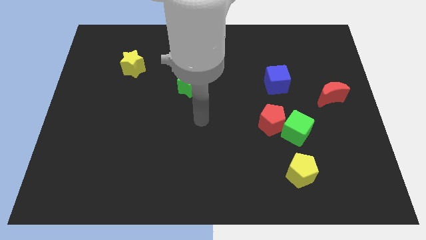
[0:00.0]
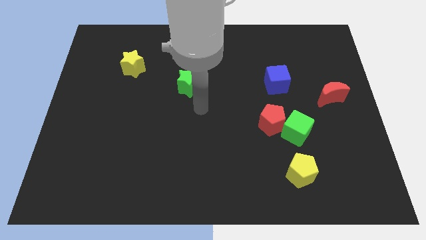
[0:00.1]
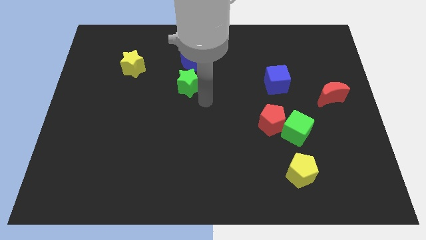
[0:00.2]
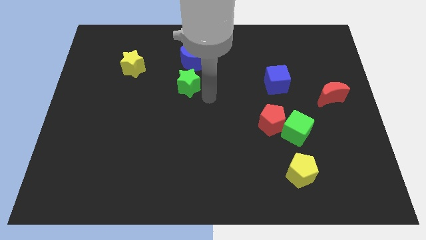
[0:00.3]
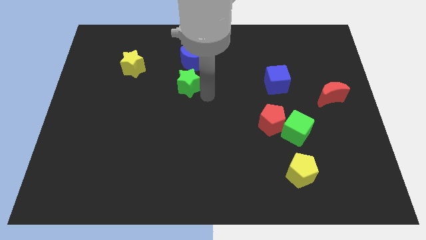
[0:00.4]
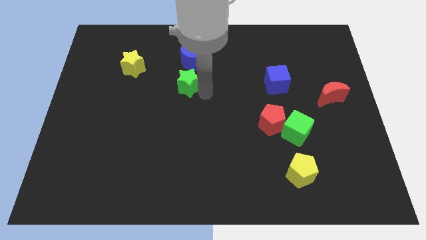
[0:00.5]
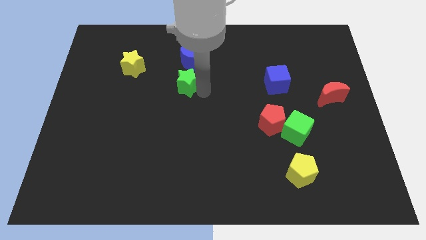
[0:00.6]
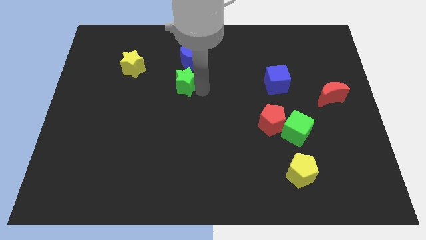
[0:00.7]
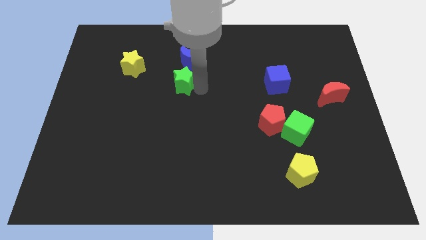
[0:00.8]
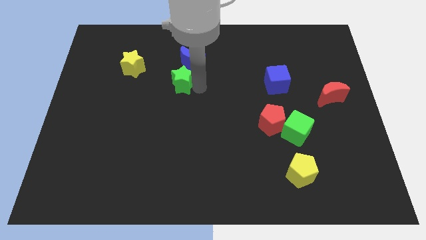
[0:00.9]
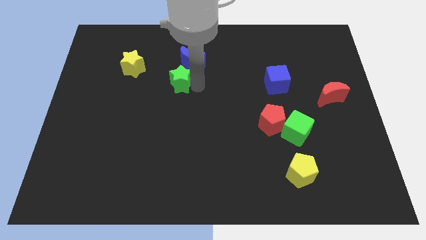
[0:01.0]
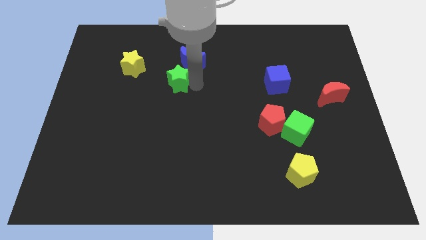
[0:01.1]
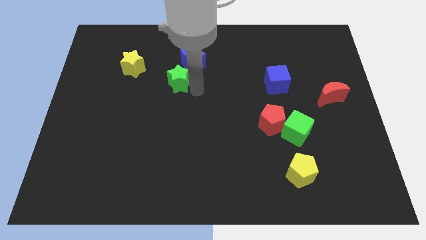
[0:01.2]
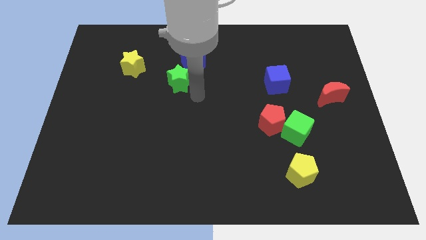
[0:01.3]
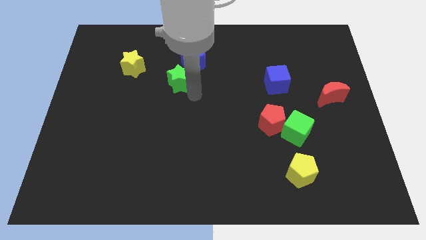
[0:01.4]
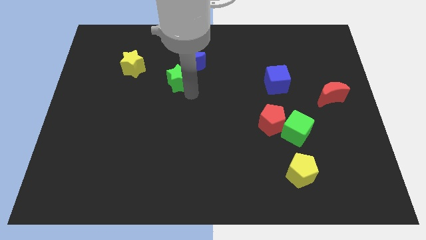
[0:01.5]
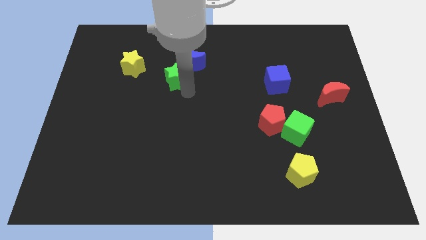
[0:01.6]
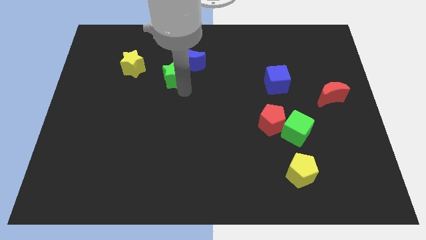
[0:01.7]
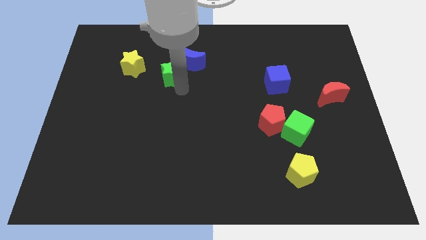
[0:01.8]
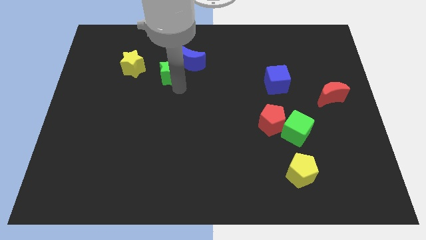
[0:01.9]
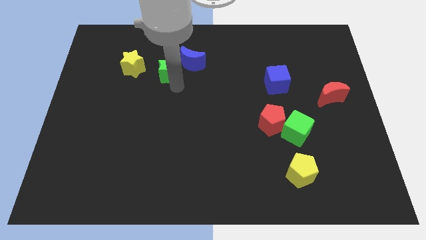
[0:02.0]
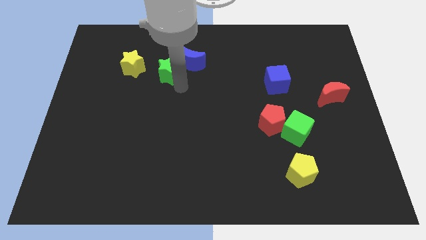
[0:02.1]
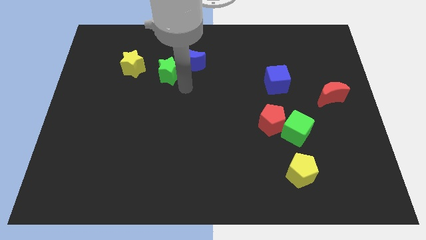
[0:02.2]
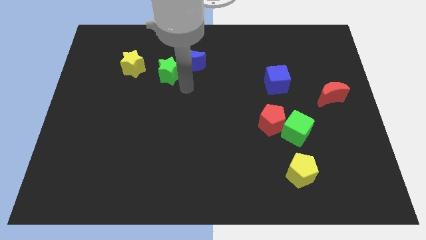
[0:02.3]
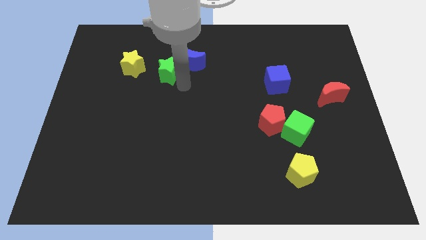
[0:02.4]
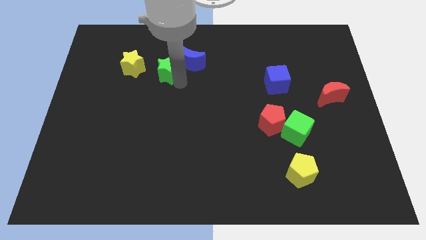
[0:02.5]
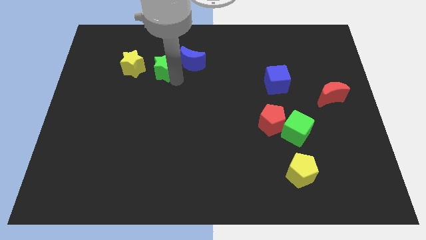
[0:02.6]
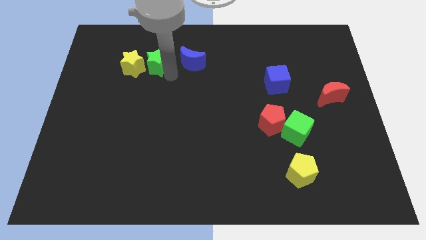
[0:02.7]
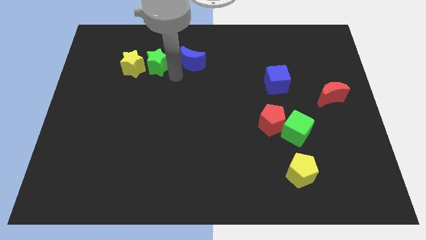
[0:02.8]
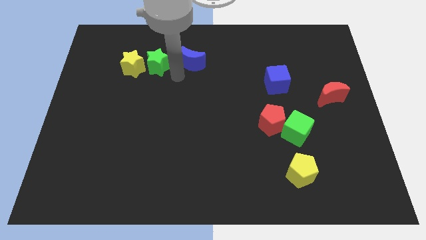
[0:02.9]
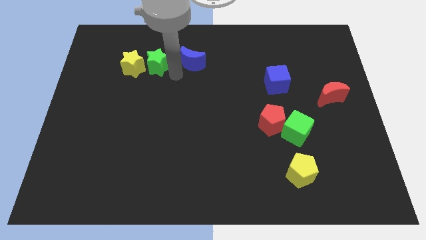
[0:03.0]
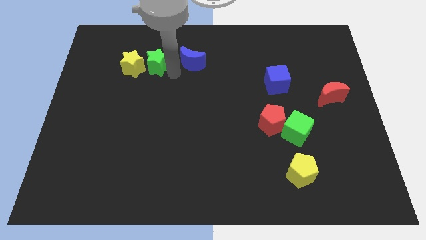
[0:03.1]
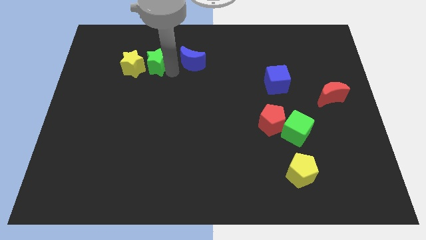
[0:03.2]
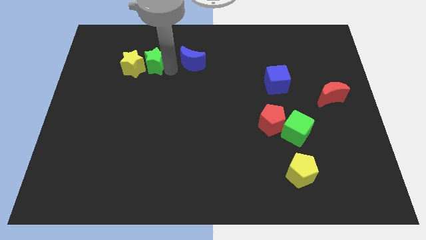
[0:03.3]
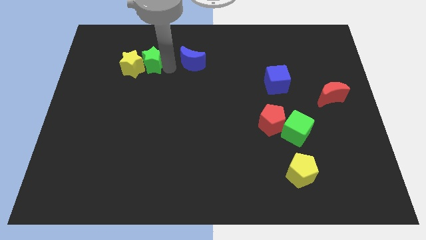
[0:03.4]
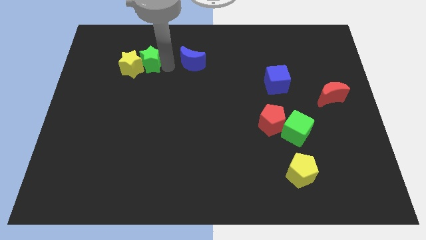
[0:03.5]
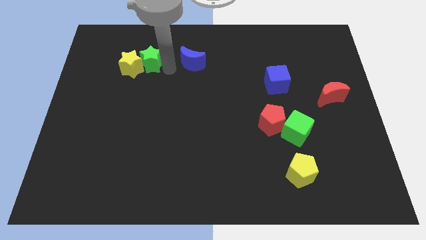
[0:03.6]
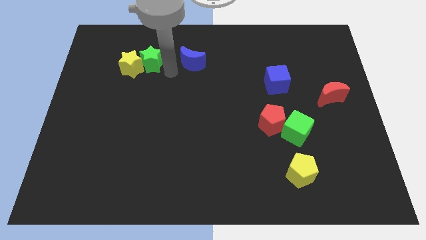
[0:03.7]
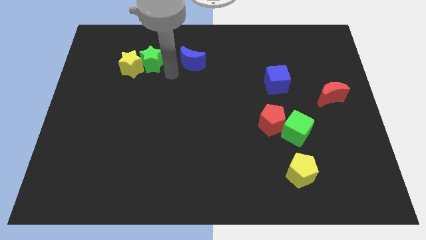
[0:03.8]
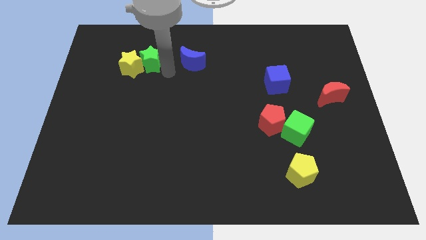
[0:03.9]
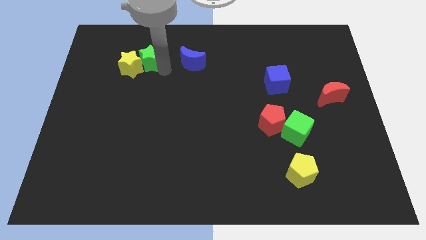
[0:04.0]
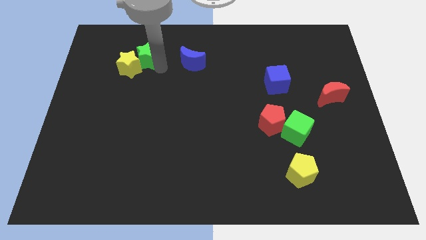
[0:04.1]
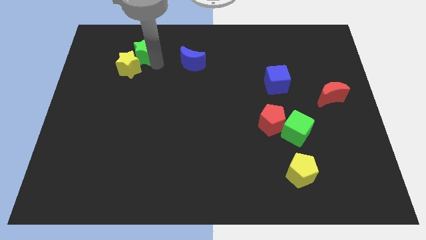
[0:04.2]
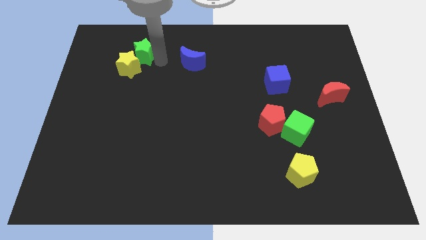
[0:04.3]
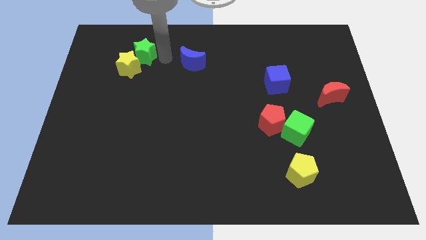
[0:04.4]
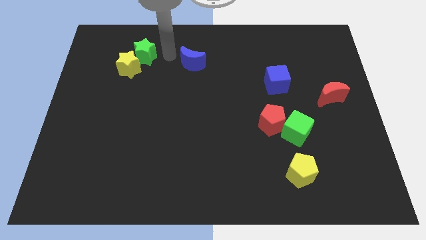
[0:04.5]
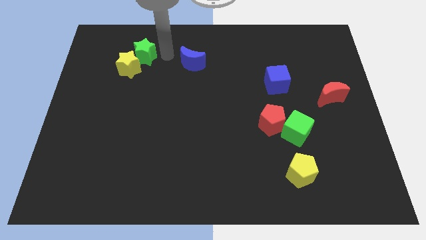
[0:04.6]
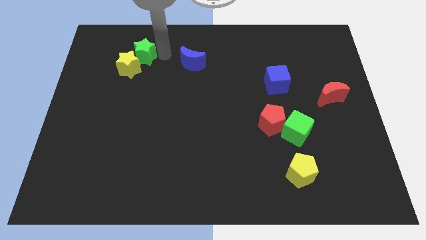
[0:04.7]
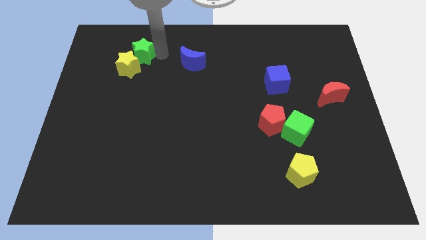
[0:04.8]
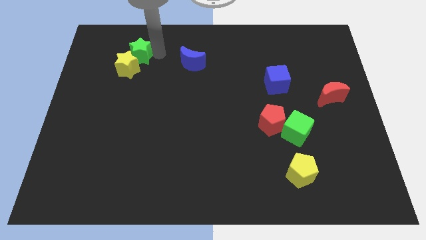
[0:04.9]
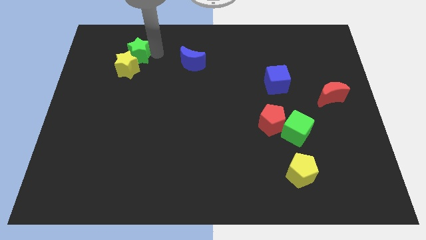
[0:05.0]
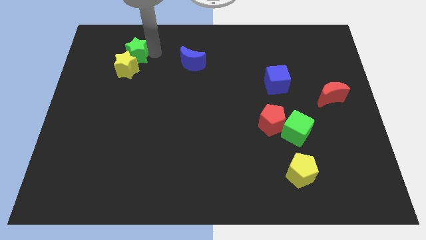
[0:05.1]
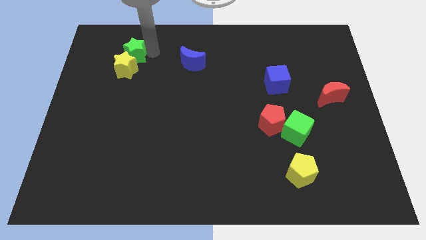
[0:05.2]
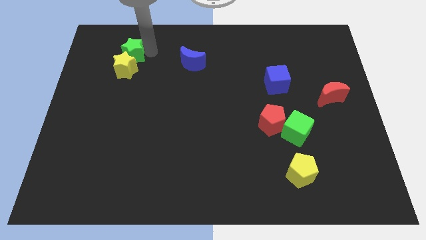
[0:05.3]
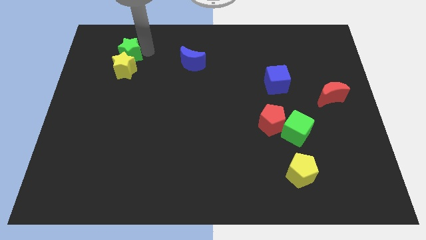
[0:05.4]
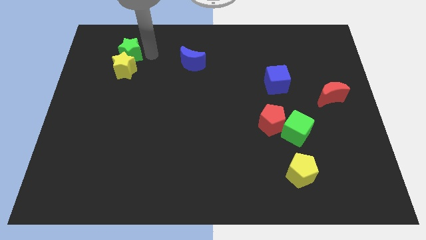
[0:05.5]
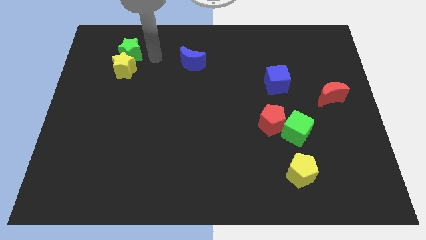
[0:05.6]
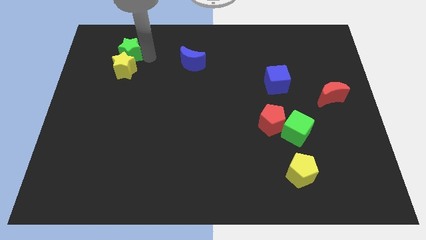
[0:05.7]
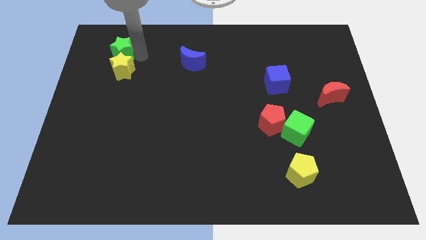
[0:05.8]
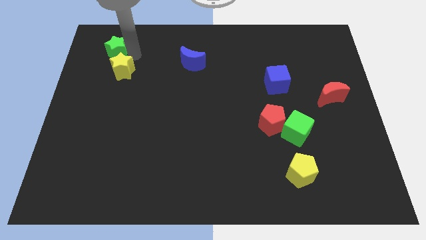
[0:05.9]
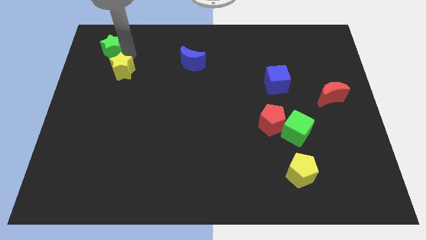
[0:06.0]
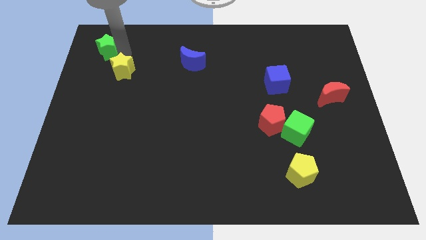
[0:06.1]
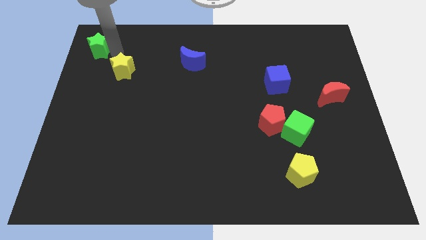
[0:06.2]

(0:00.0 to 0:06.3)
push the green star to the upper left corner

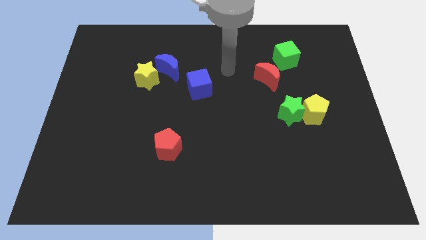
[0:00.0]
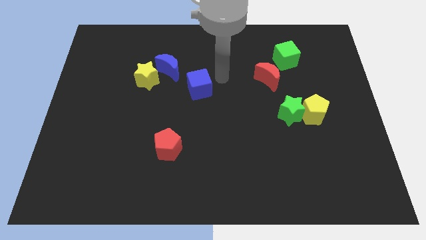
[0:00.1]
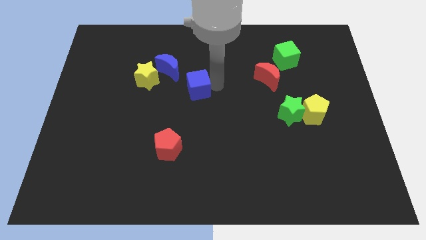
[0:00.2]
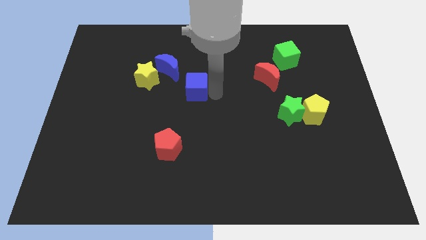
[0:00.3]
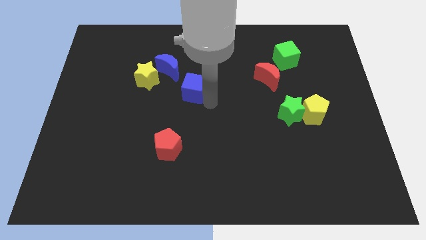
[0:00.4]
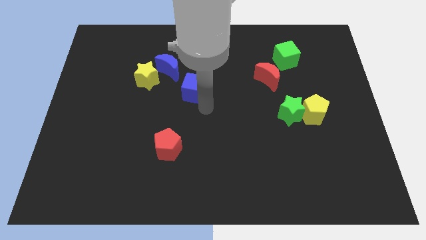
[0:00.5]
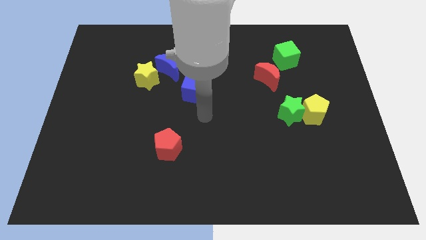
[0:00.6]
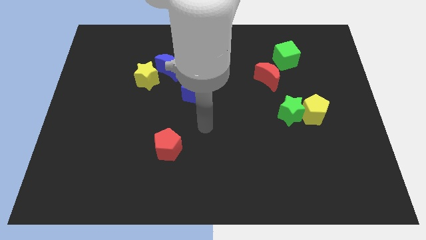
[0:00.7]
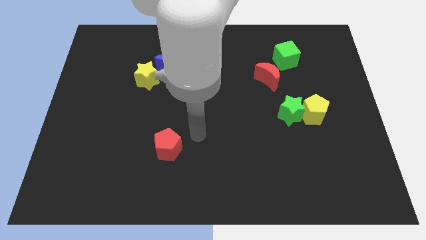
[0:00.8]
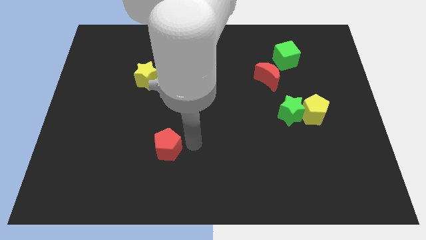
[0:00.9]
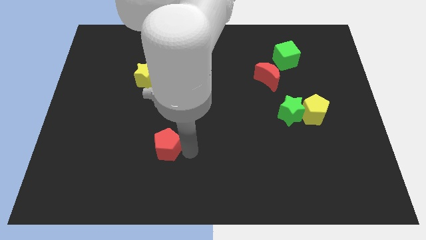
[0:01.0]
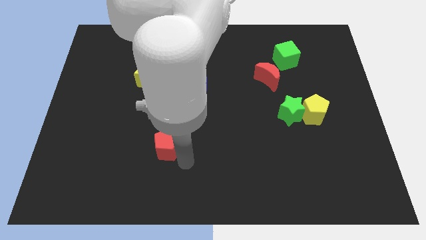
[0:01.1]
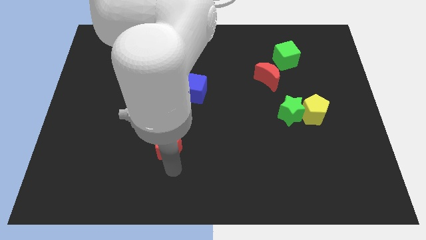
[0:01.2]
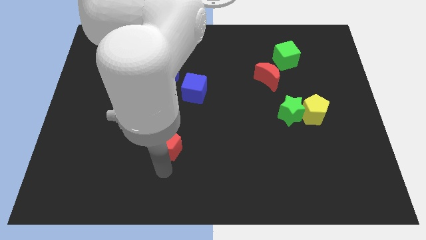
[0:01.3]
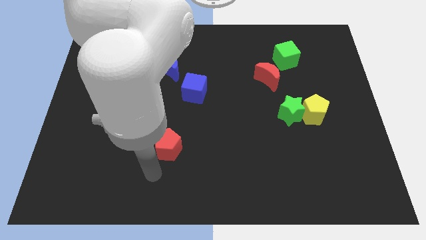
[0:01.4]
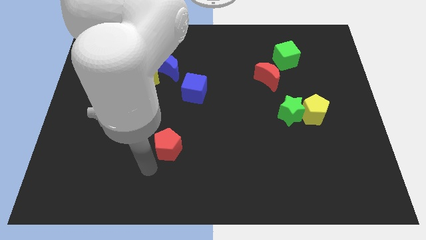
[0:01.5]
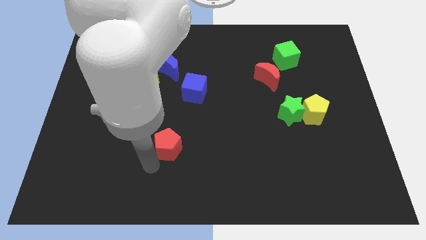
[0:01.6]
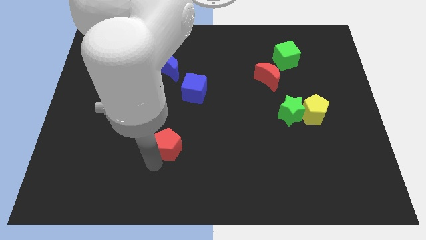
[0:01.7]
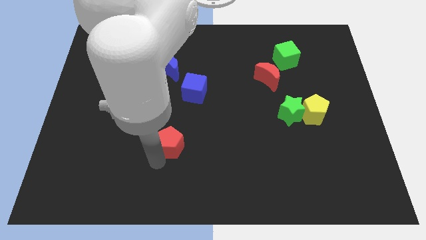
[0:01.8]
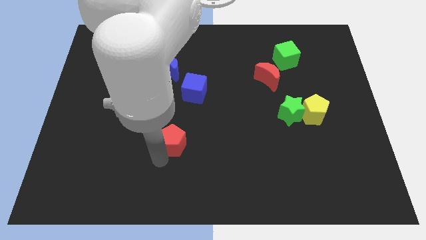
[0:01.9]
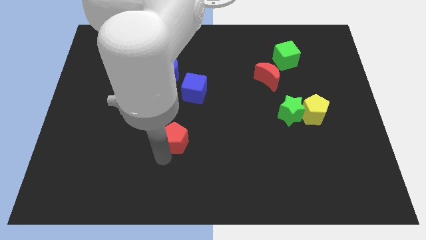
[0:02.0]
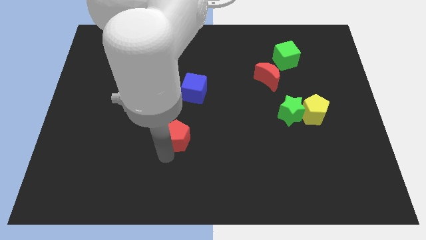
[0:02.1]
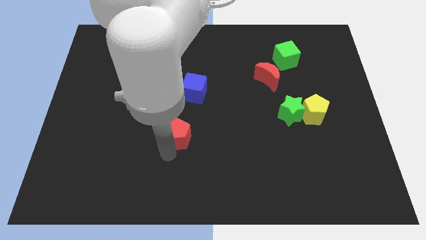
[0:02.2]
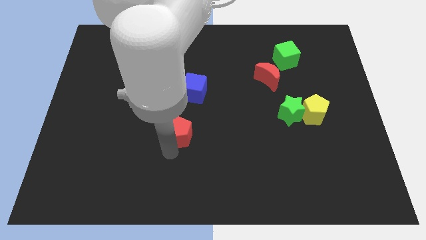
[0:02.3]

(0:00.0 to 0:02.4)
put the red pentagon to the middle
